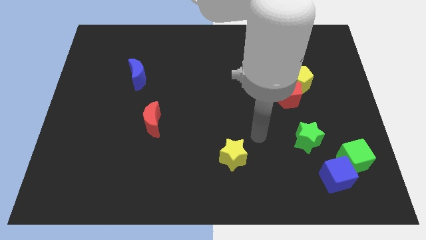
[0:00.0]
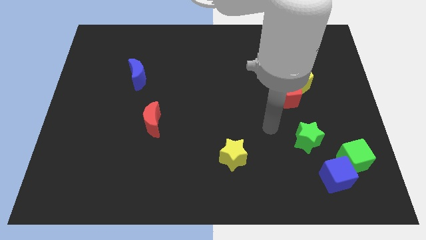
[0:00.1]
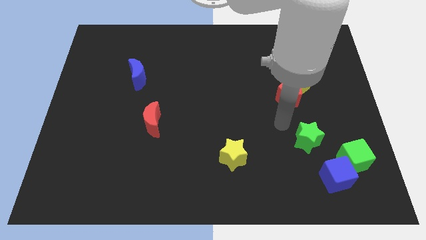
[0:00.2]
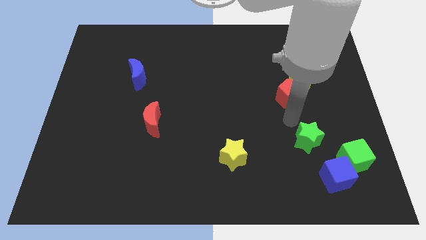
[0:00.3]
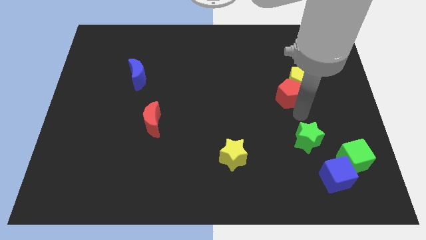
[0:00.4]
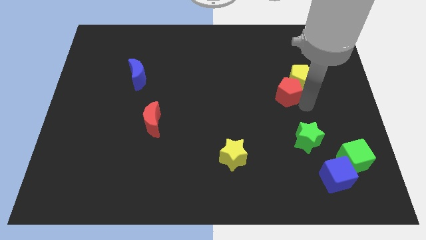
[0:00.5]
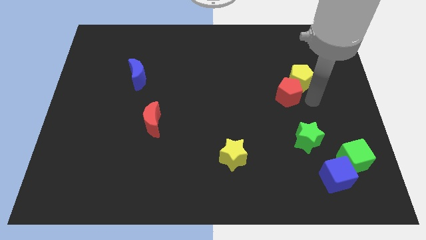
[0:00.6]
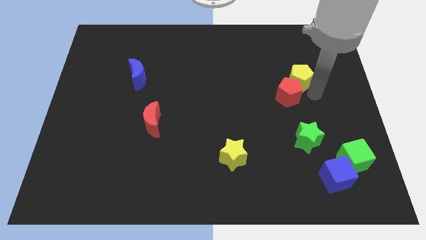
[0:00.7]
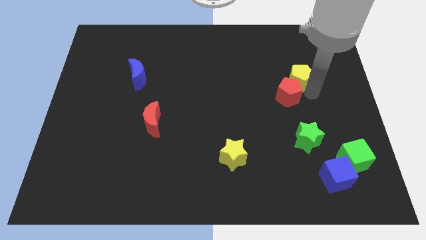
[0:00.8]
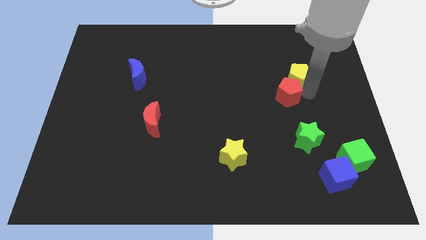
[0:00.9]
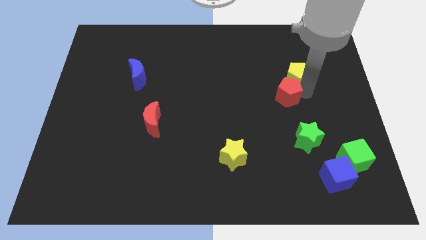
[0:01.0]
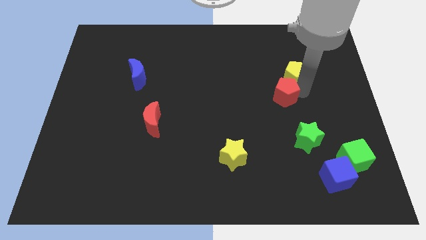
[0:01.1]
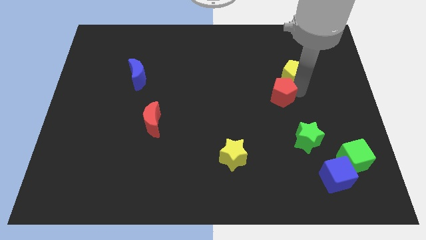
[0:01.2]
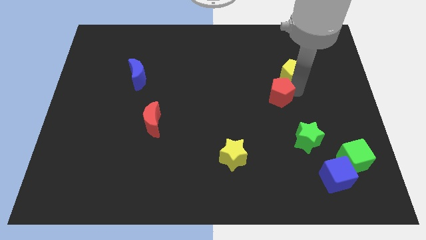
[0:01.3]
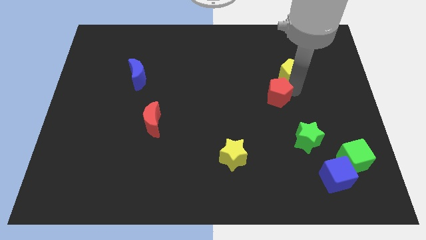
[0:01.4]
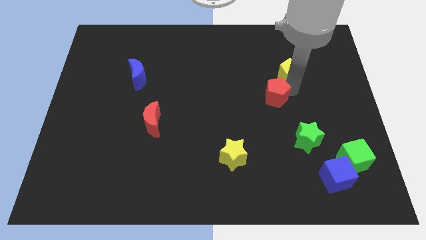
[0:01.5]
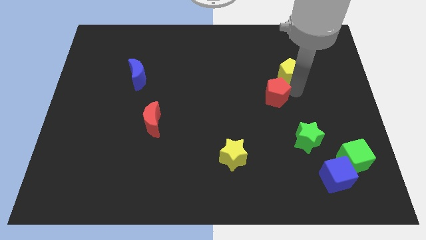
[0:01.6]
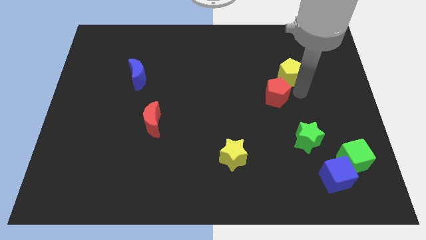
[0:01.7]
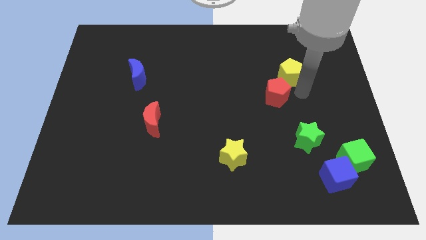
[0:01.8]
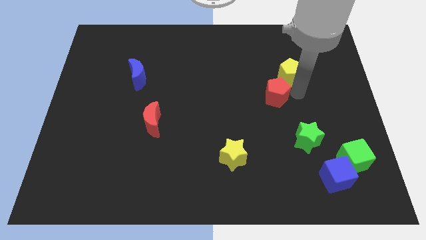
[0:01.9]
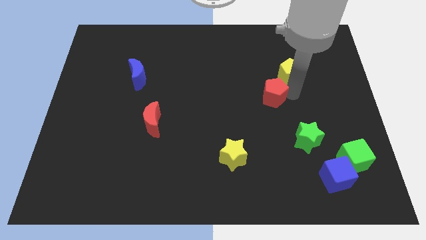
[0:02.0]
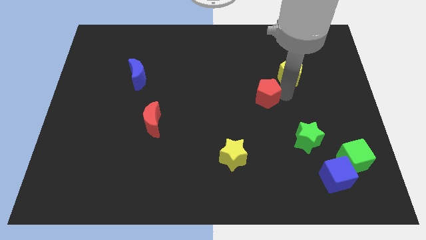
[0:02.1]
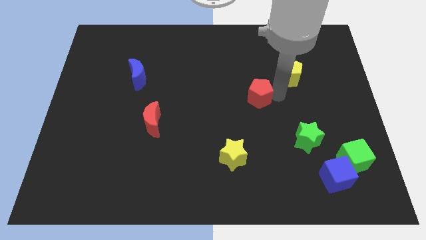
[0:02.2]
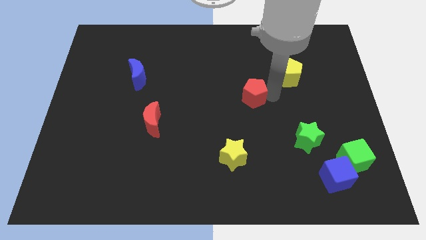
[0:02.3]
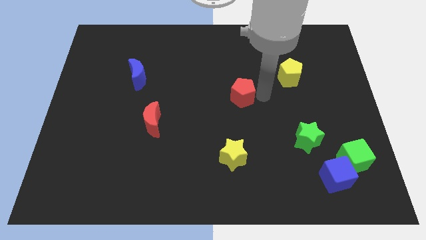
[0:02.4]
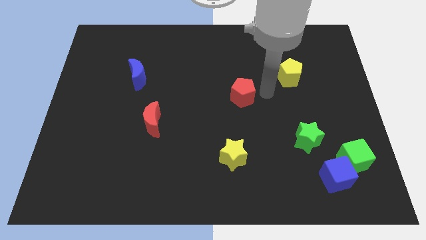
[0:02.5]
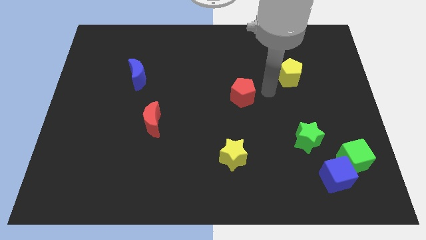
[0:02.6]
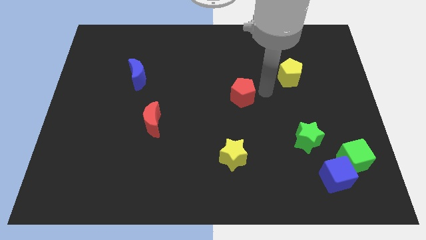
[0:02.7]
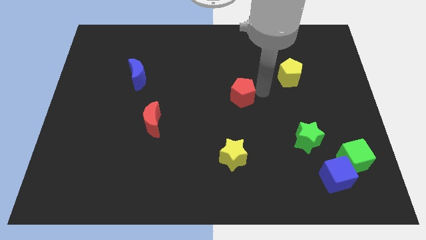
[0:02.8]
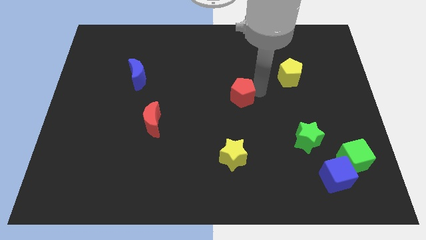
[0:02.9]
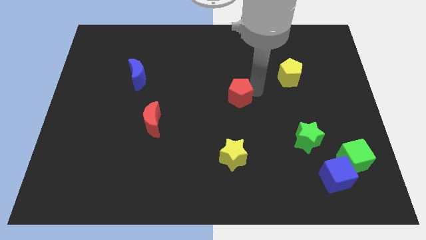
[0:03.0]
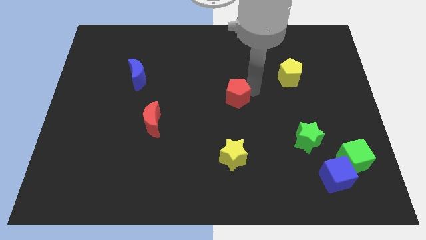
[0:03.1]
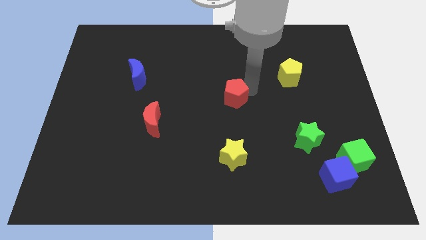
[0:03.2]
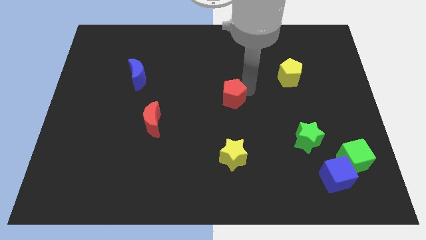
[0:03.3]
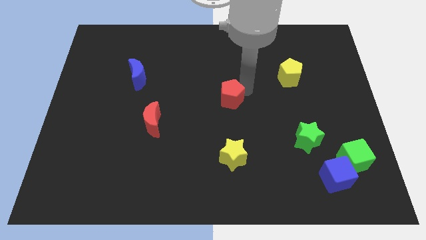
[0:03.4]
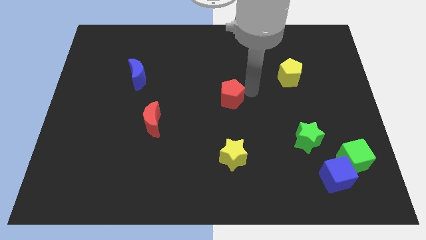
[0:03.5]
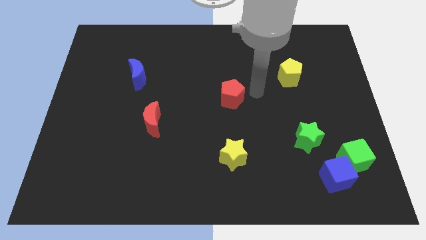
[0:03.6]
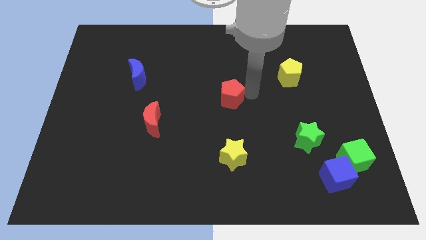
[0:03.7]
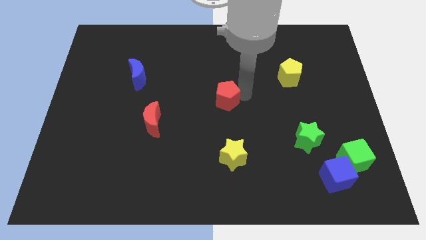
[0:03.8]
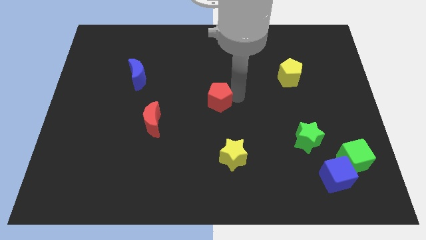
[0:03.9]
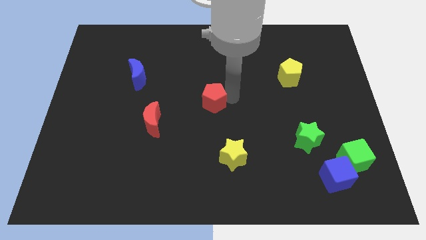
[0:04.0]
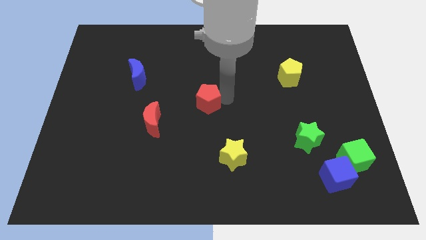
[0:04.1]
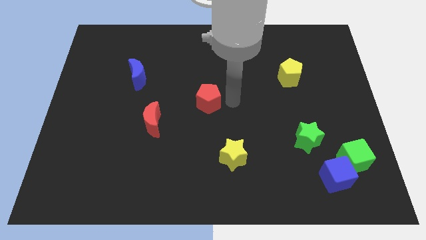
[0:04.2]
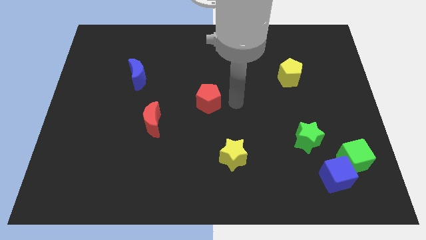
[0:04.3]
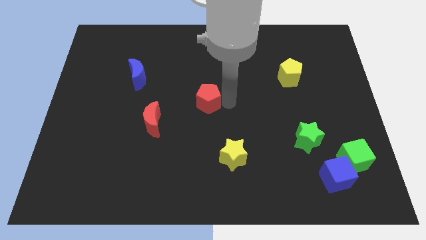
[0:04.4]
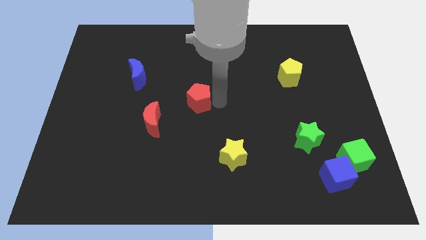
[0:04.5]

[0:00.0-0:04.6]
slide the red pentagon left

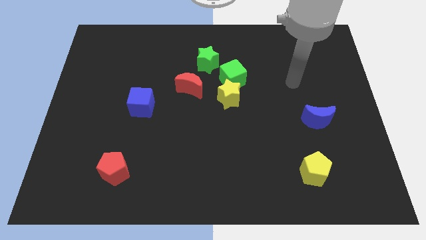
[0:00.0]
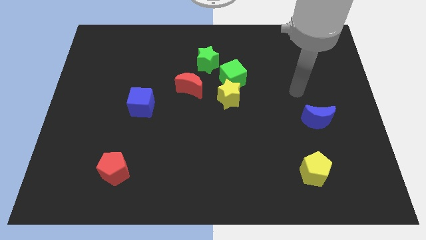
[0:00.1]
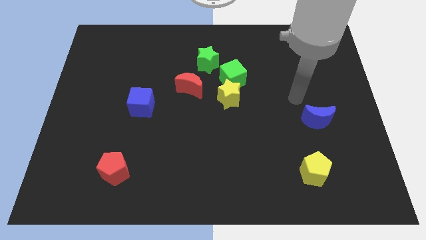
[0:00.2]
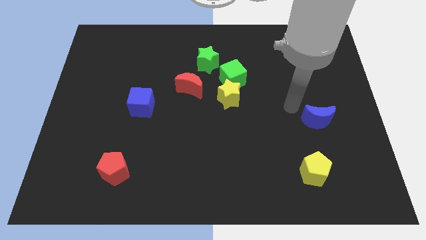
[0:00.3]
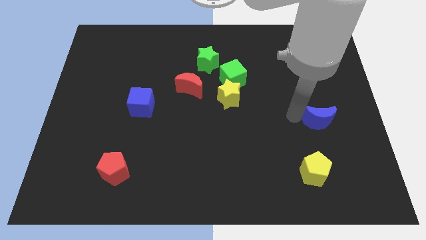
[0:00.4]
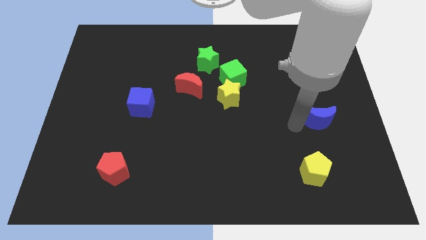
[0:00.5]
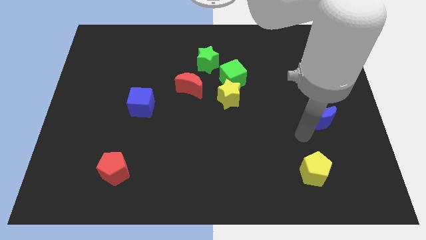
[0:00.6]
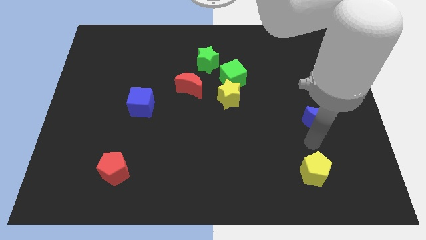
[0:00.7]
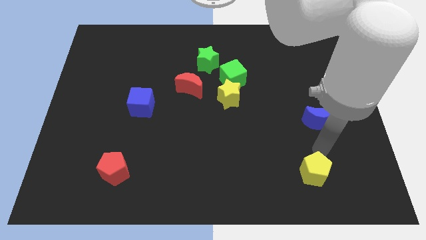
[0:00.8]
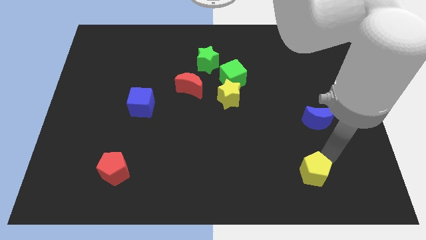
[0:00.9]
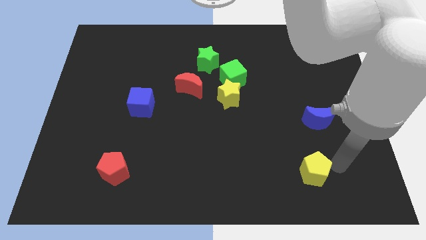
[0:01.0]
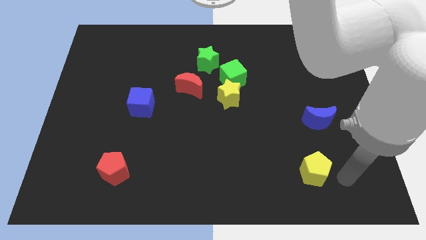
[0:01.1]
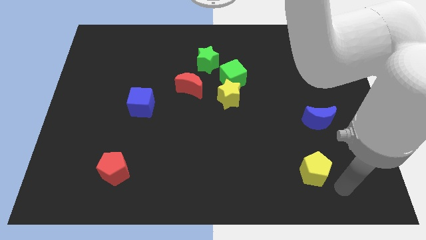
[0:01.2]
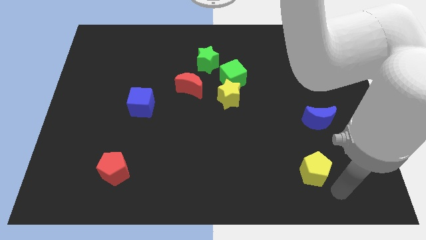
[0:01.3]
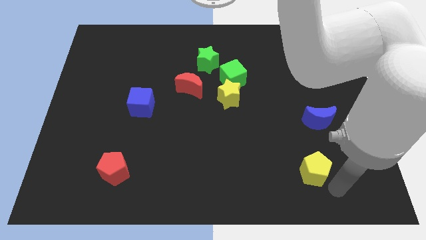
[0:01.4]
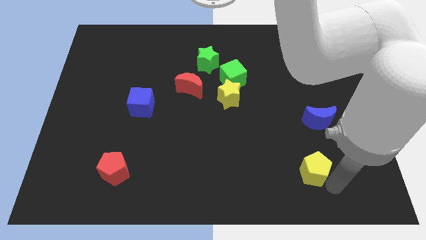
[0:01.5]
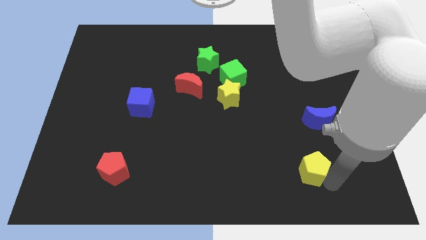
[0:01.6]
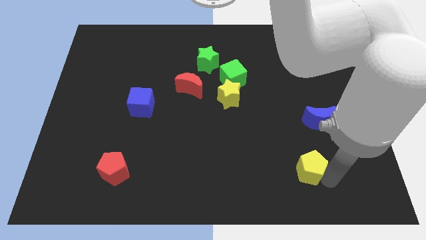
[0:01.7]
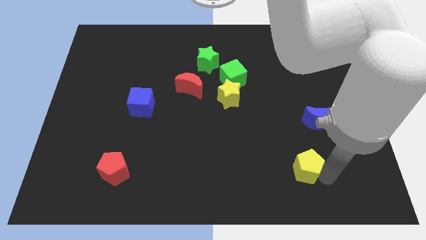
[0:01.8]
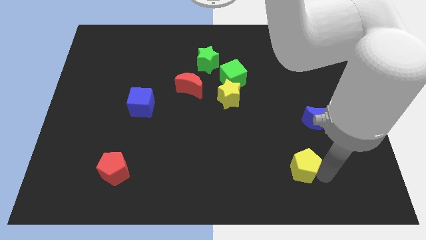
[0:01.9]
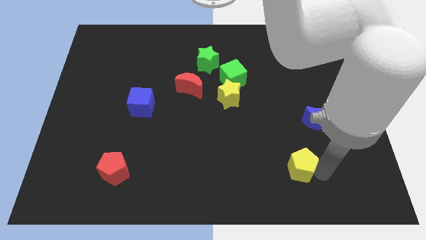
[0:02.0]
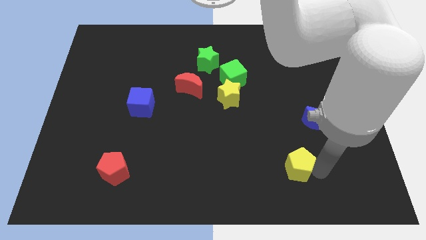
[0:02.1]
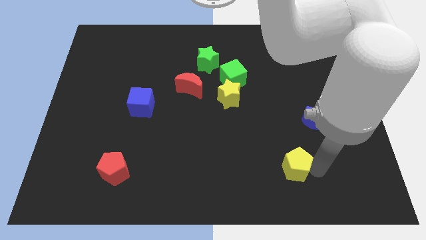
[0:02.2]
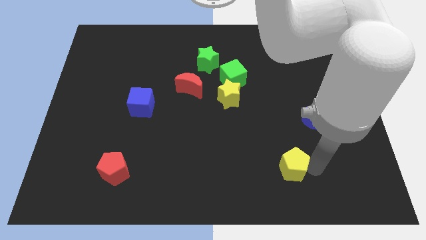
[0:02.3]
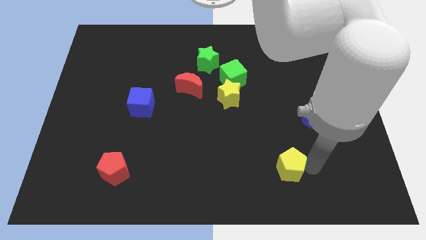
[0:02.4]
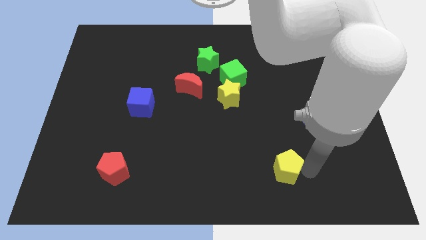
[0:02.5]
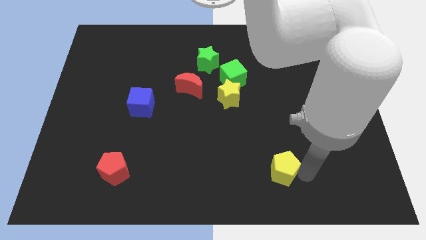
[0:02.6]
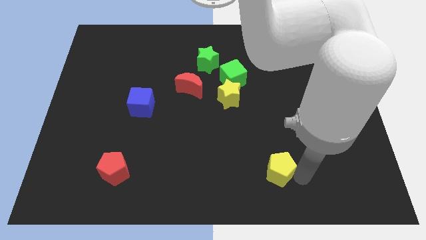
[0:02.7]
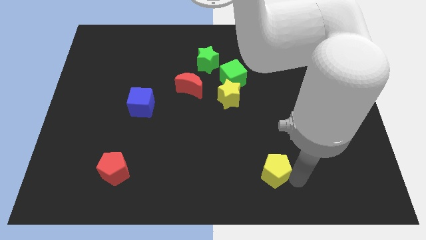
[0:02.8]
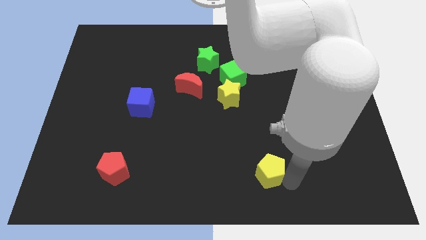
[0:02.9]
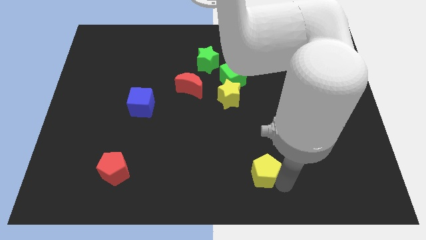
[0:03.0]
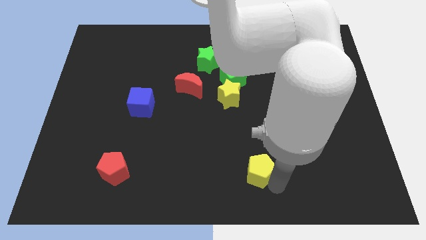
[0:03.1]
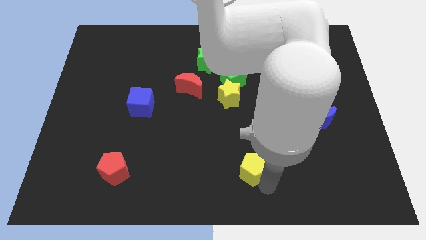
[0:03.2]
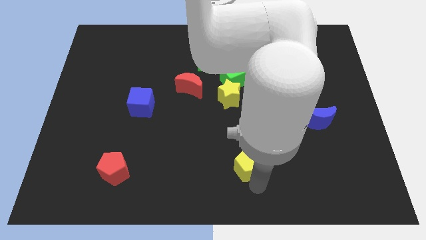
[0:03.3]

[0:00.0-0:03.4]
slide the yellow pentagon a little bit upwards and left
